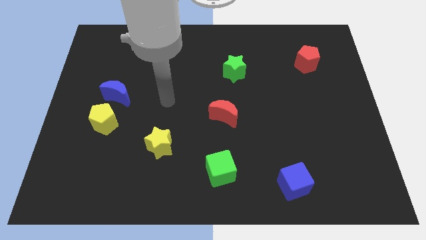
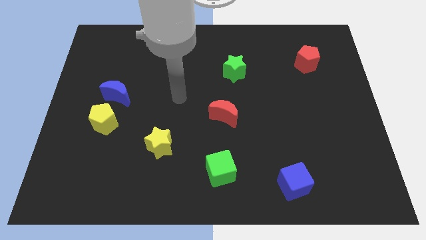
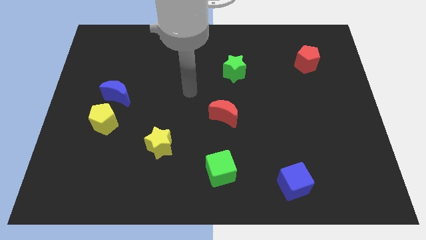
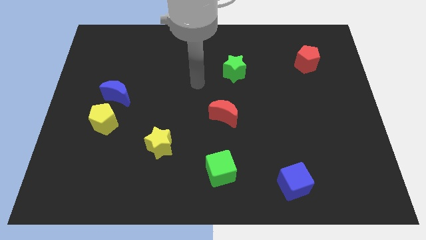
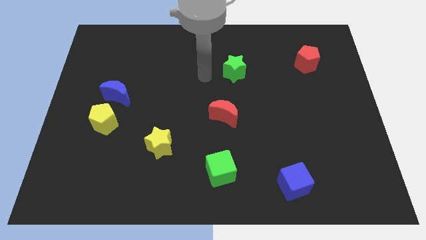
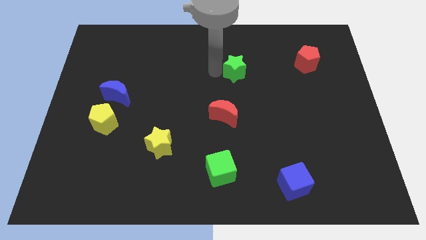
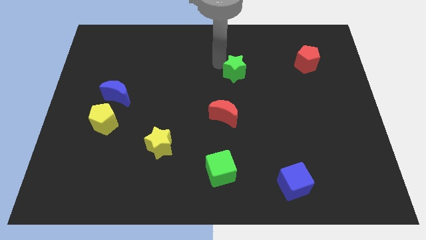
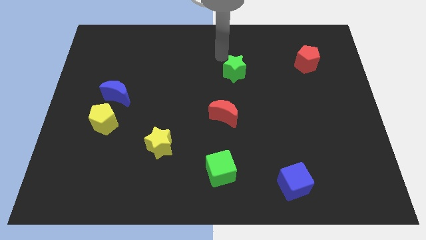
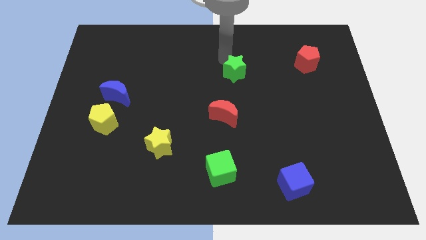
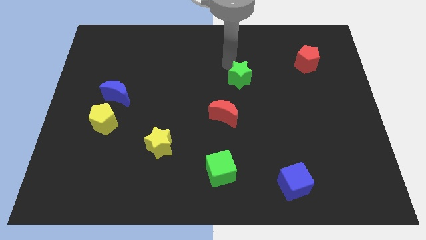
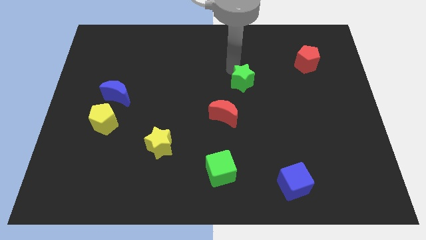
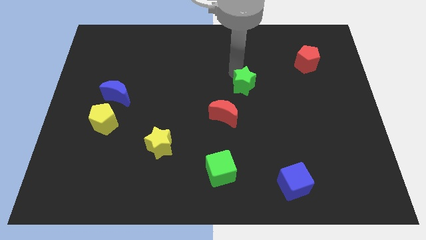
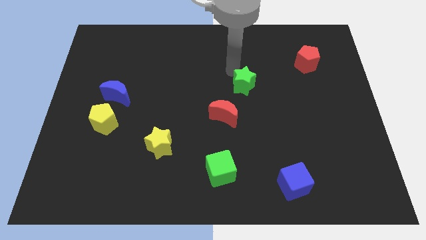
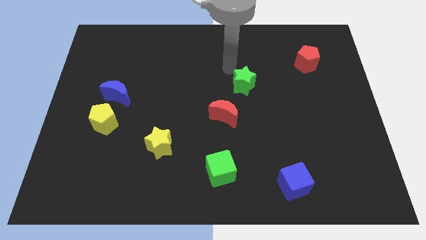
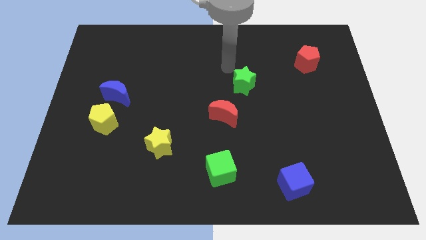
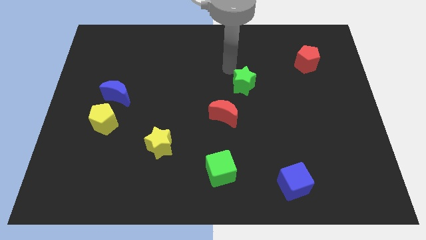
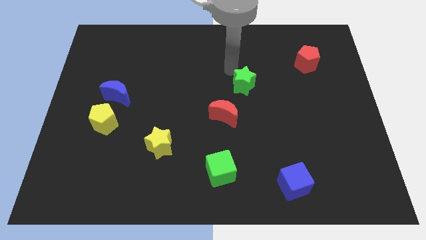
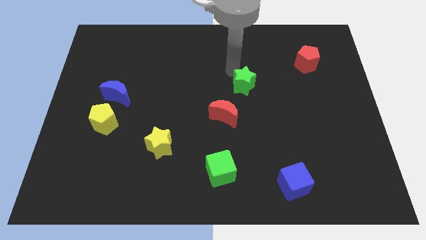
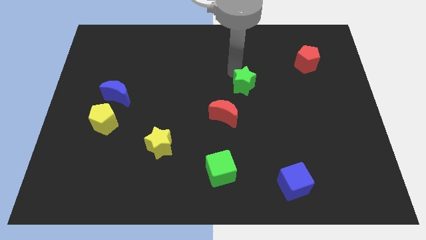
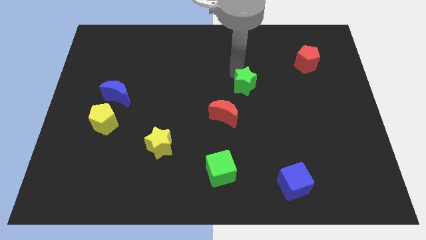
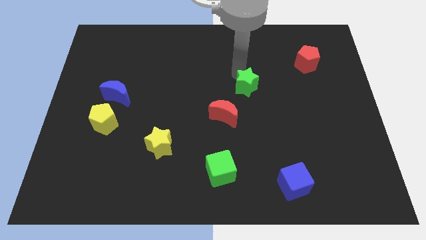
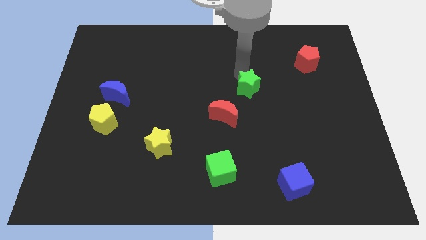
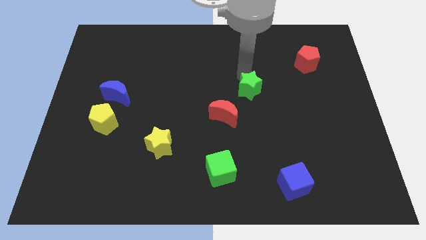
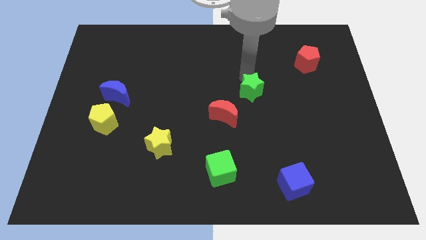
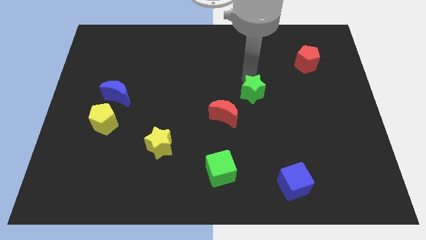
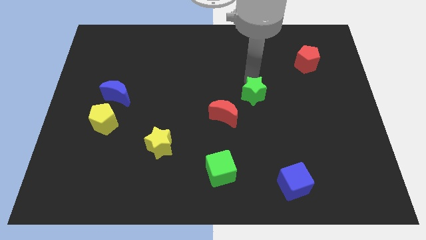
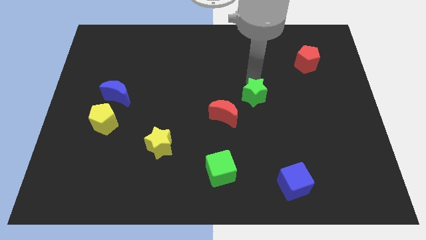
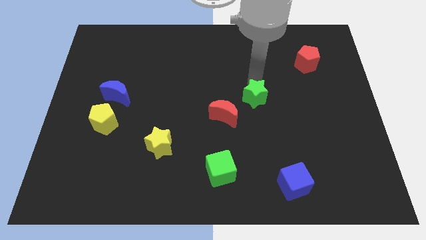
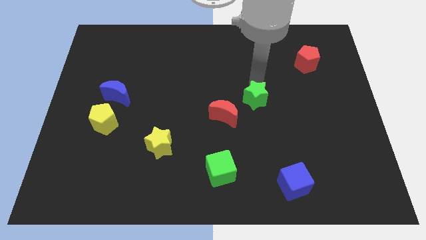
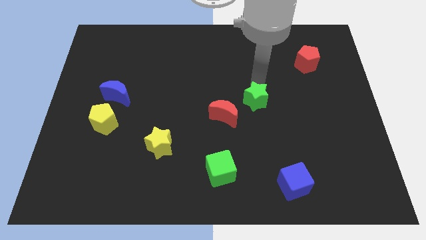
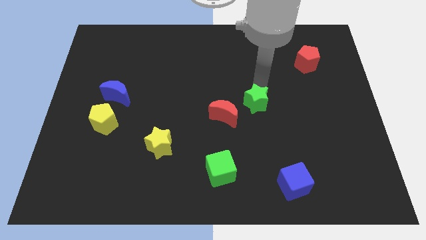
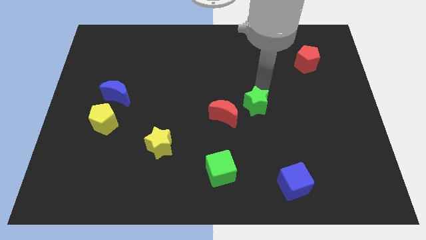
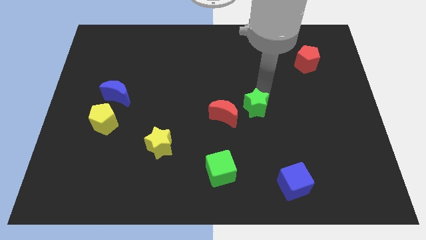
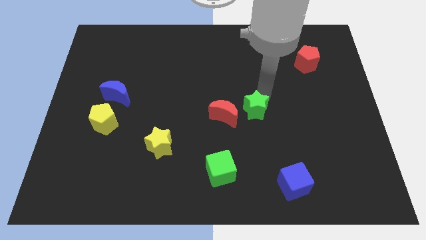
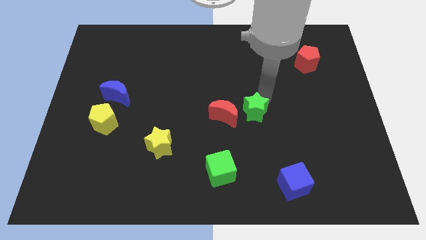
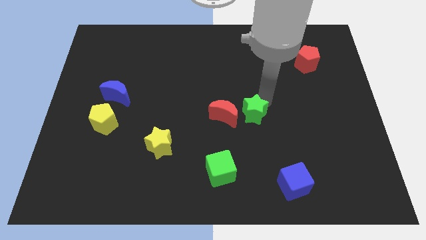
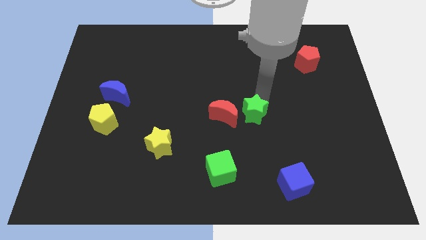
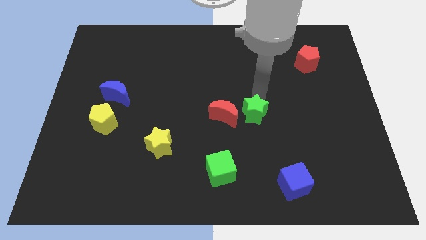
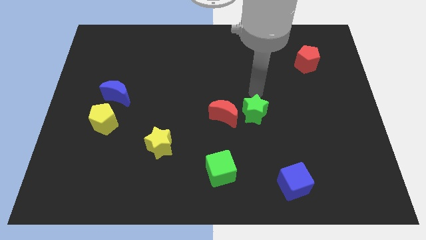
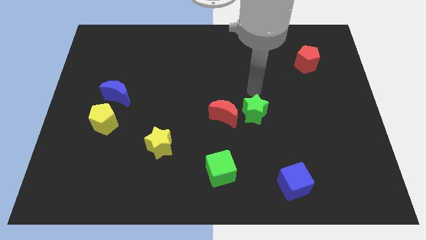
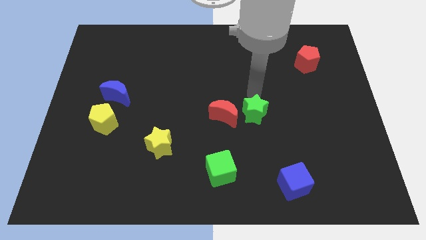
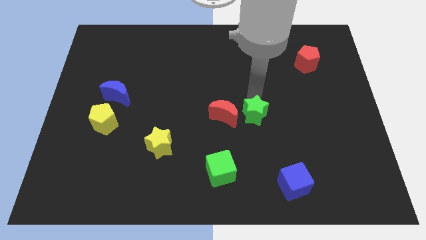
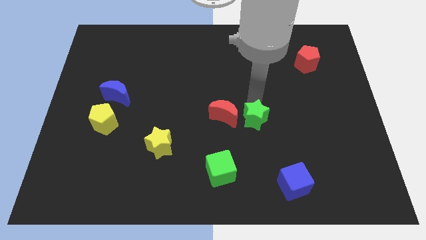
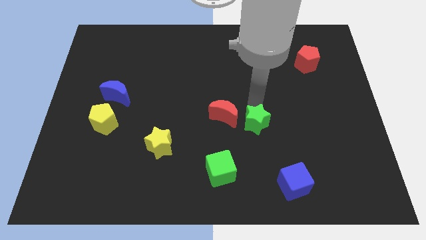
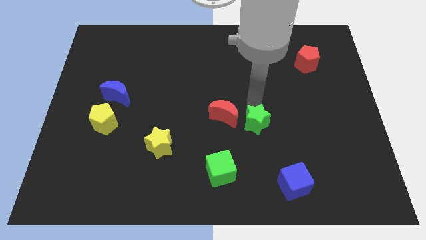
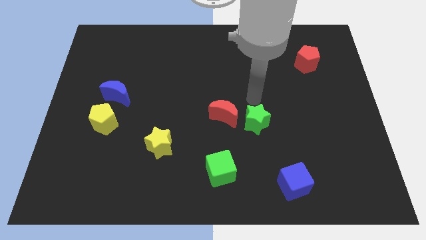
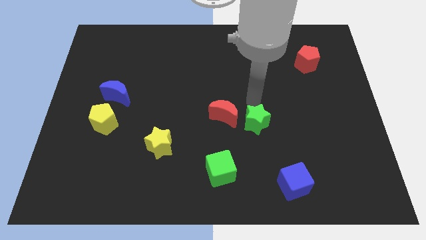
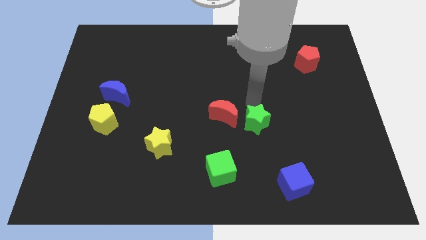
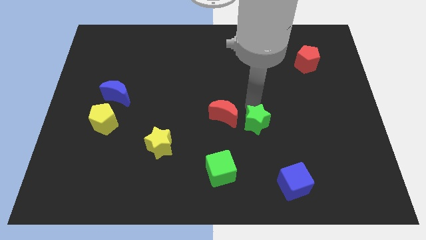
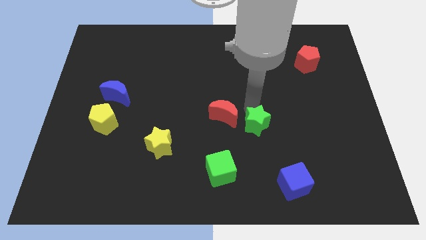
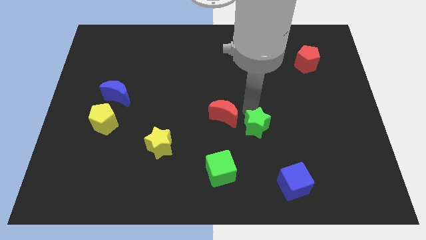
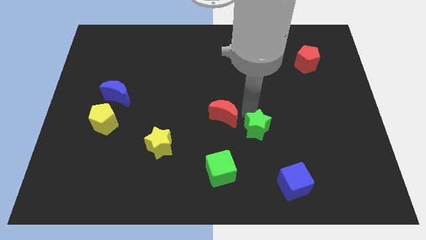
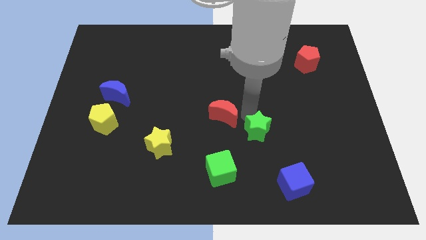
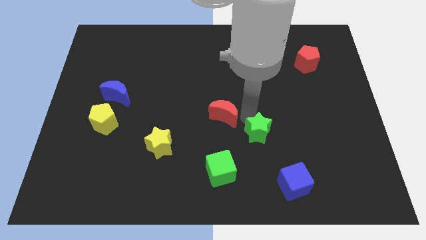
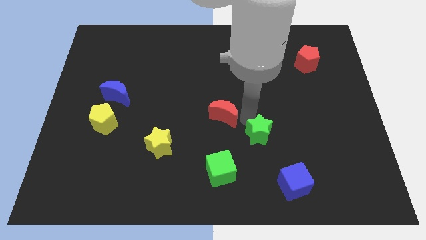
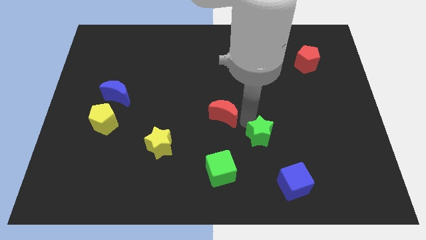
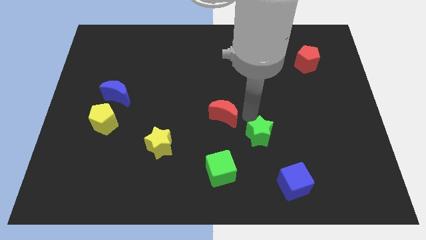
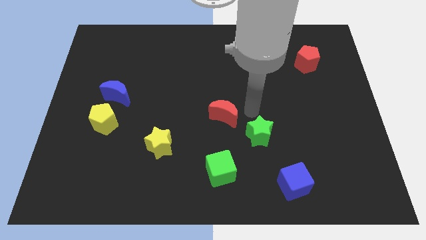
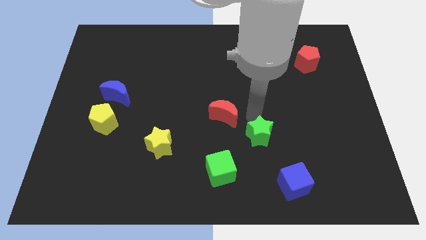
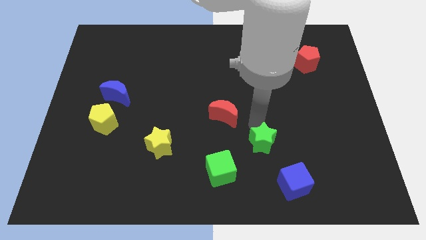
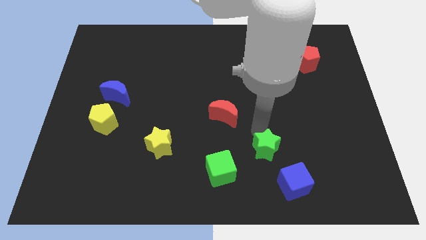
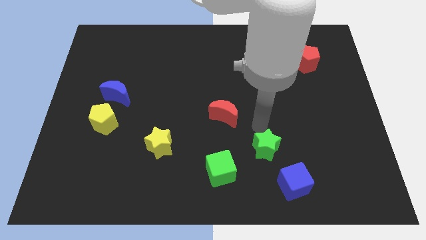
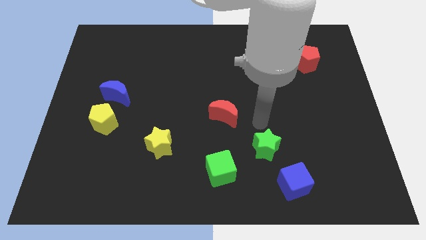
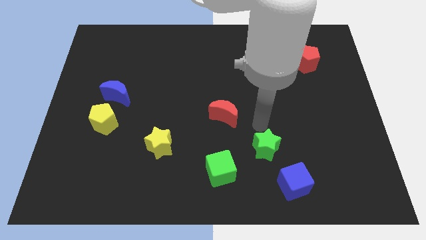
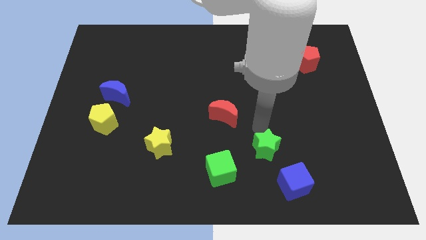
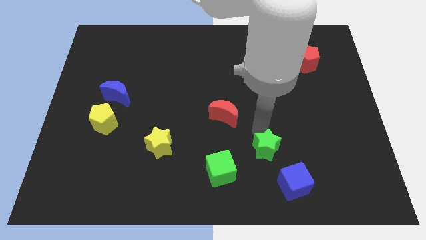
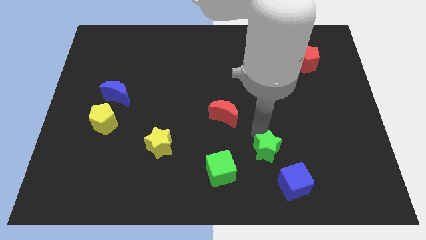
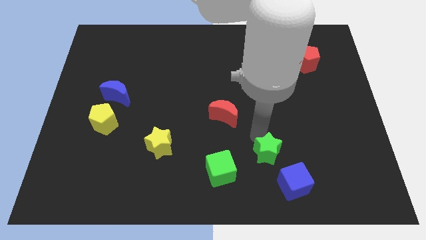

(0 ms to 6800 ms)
put the green star just right of the green cube

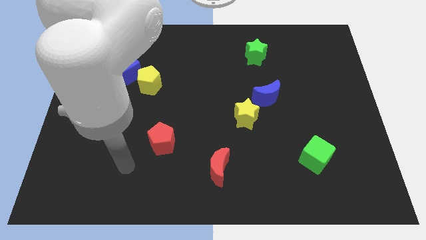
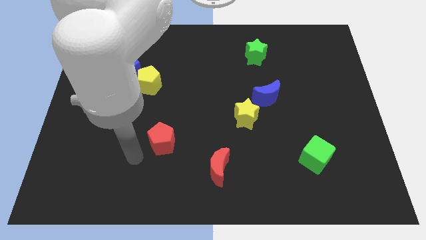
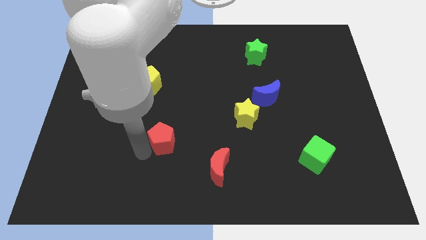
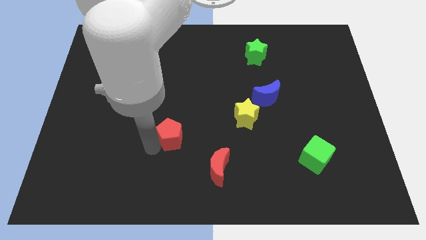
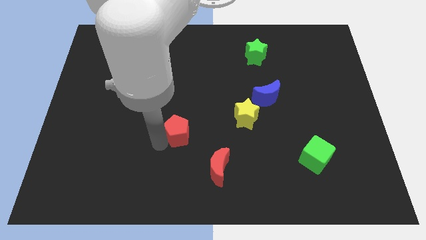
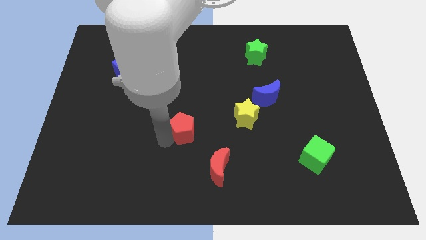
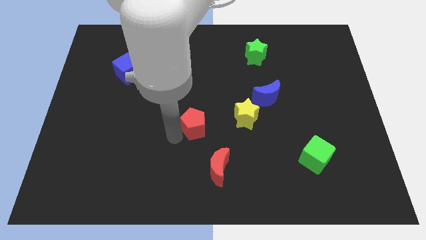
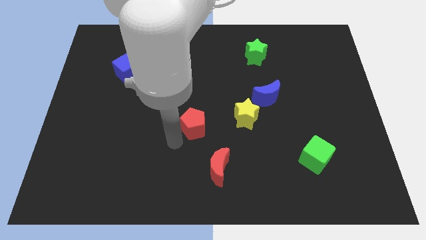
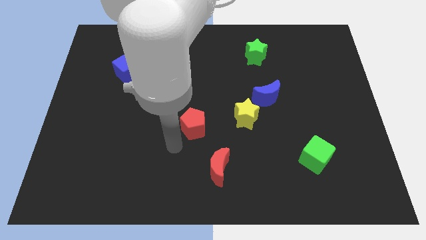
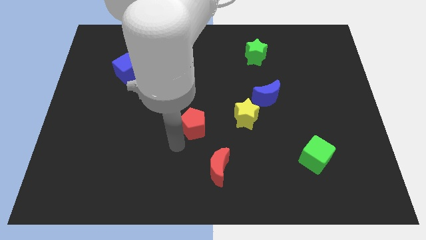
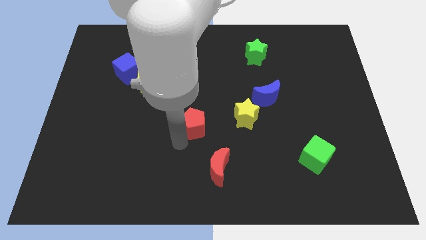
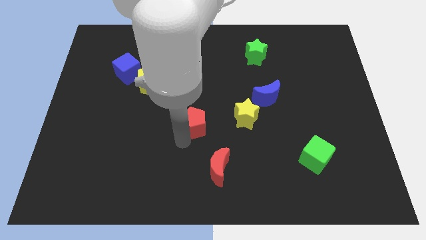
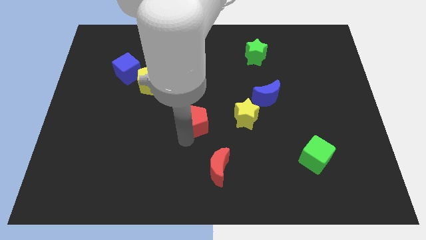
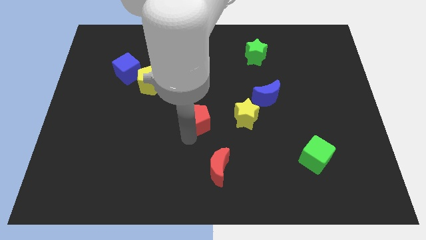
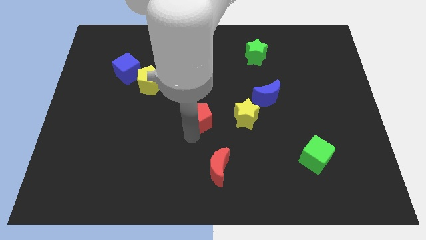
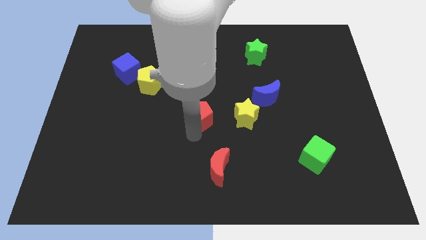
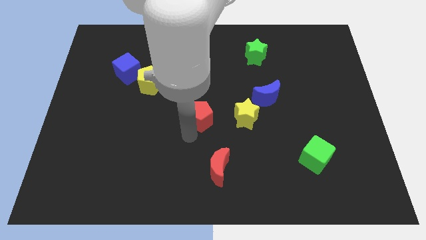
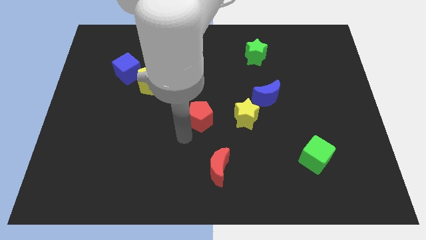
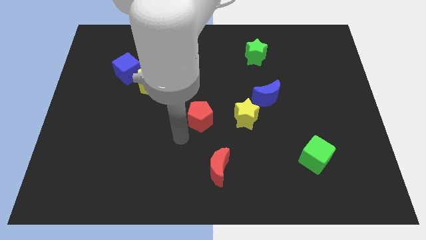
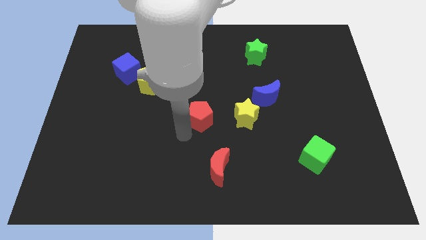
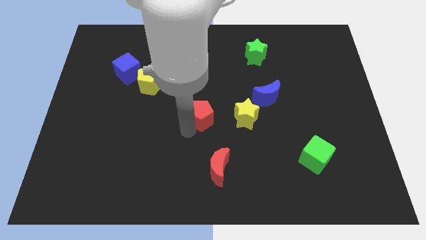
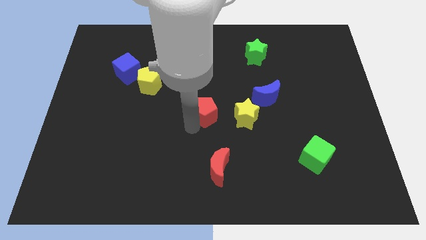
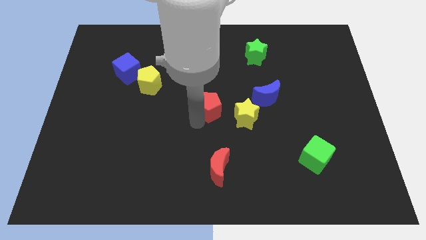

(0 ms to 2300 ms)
move the red pentagon to the left of the blue moon
